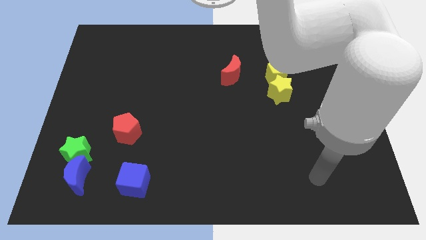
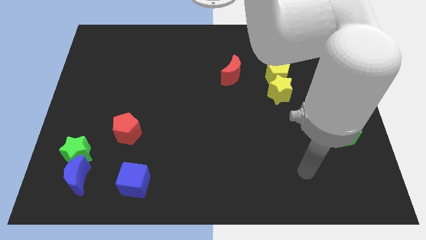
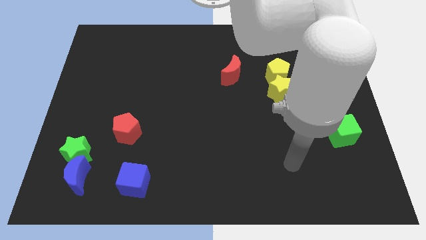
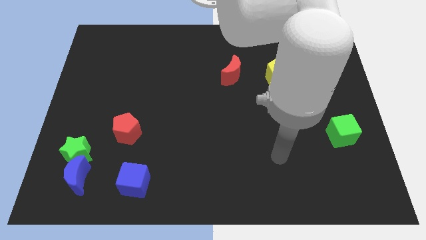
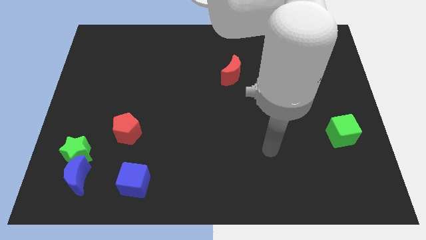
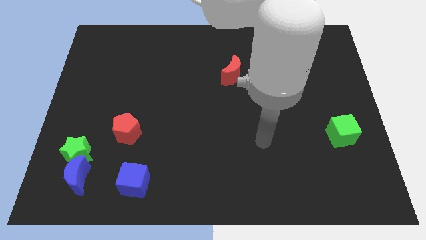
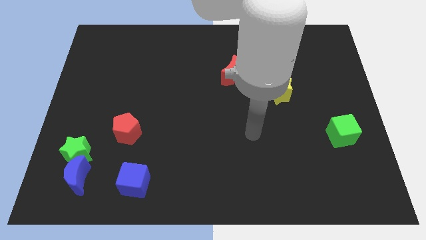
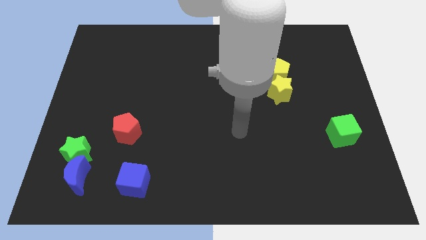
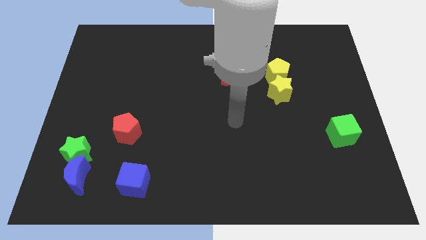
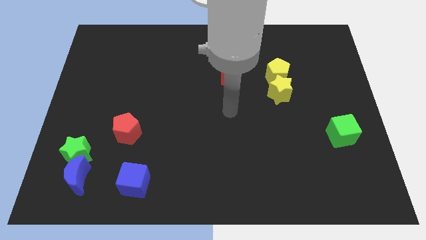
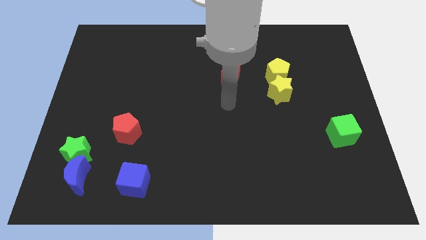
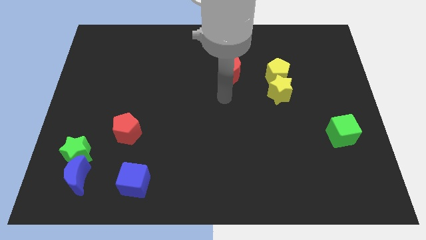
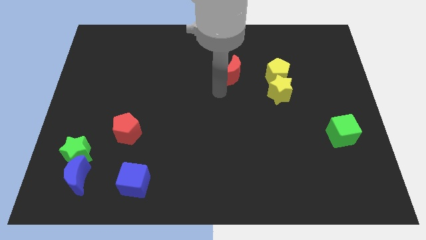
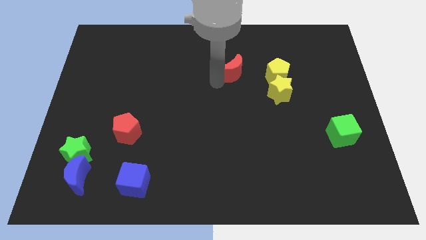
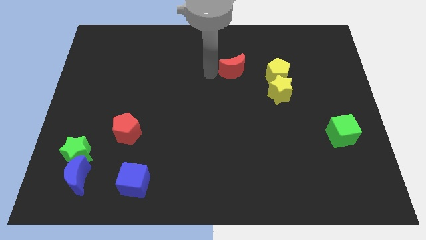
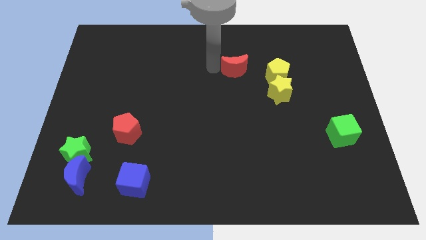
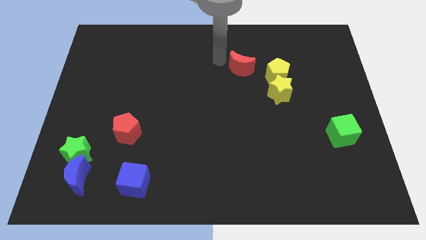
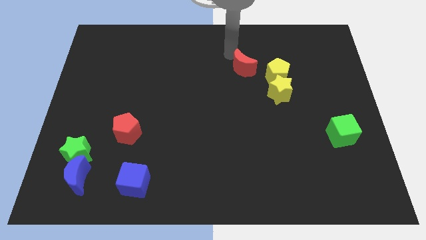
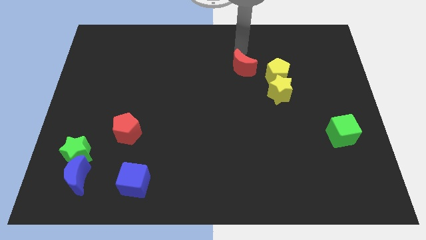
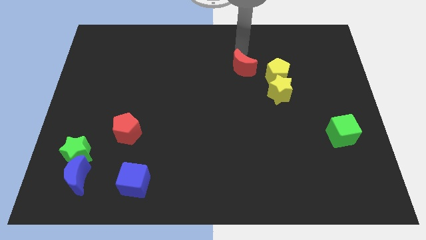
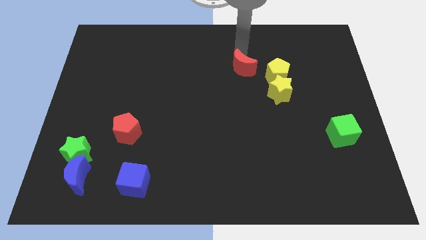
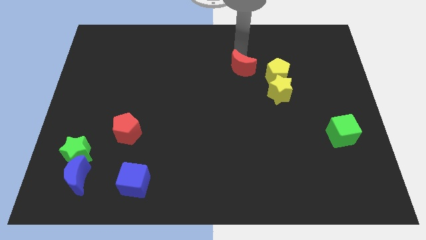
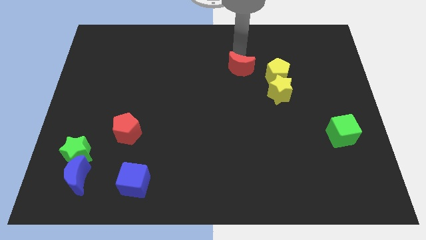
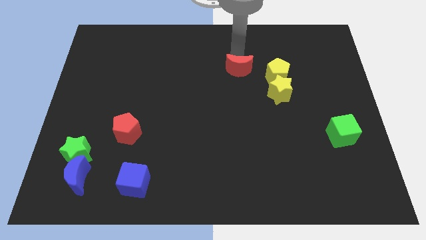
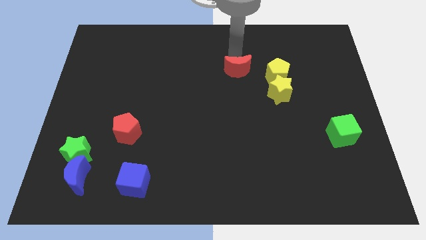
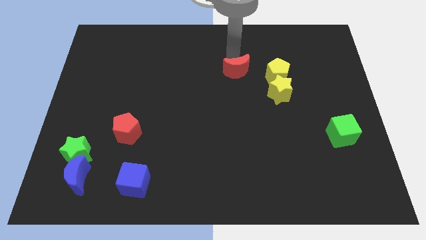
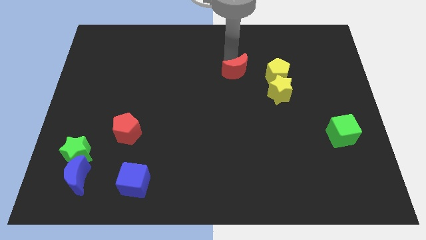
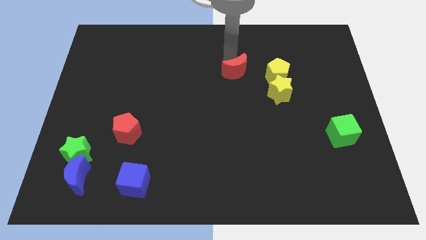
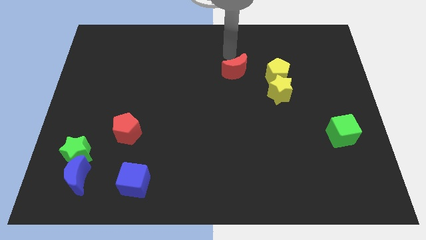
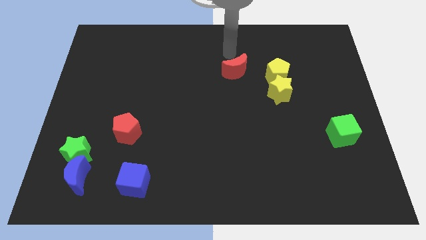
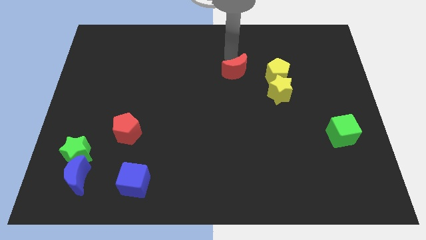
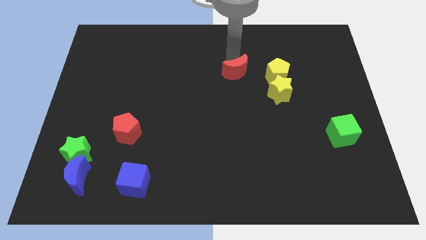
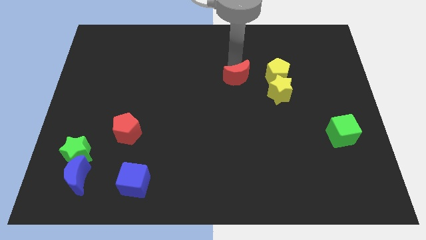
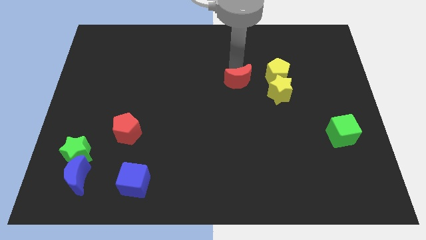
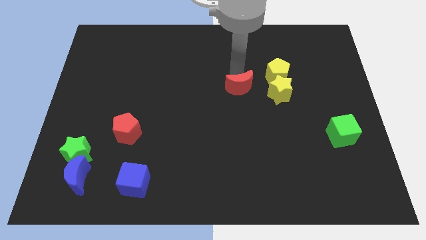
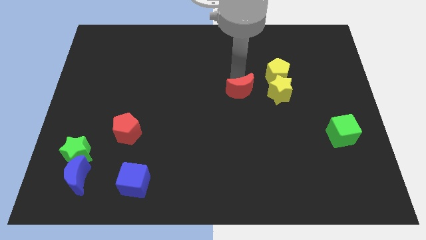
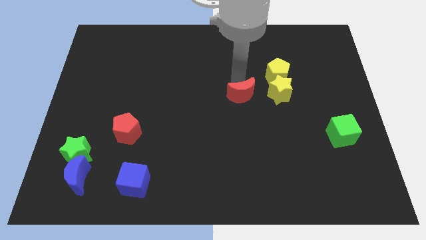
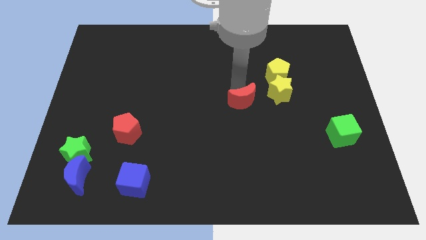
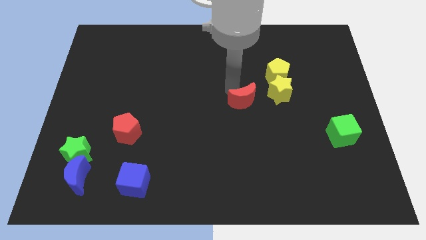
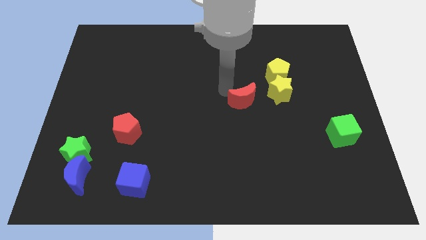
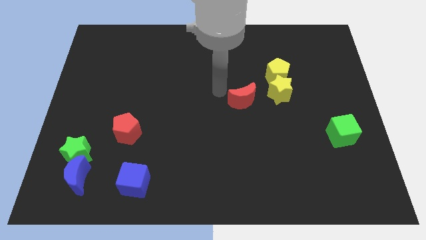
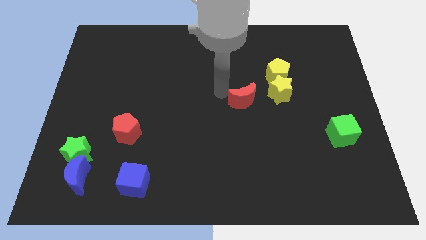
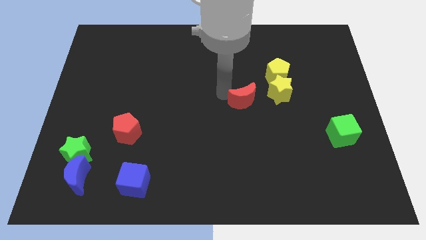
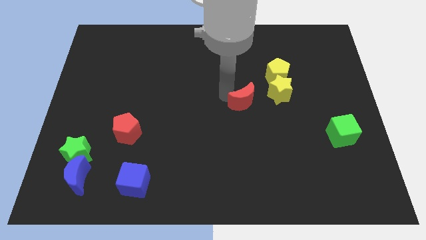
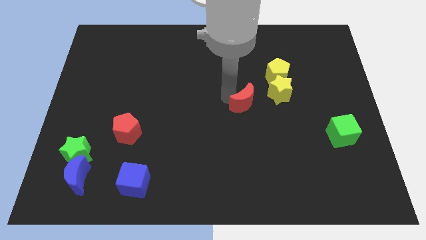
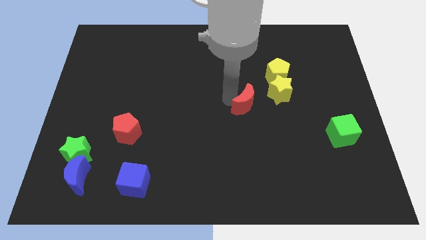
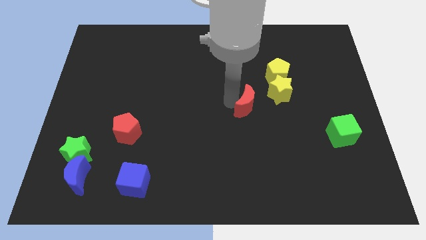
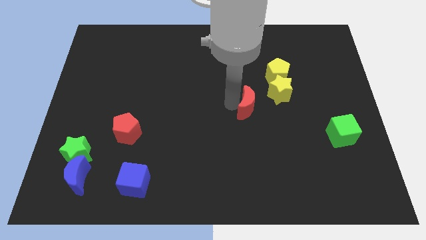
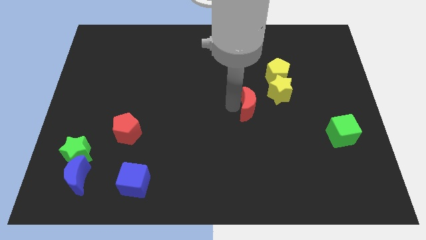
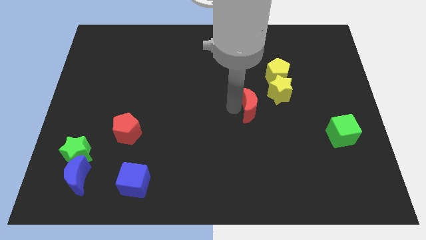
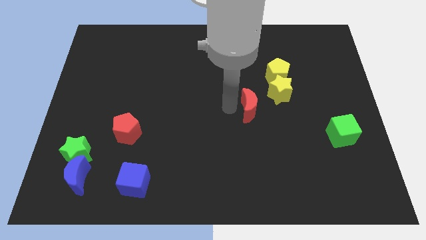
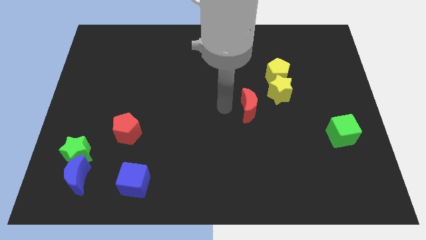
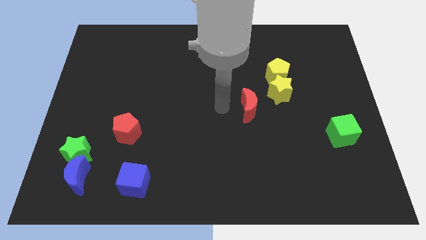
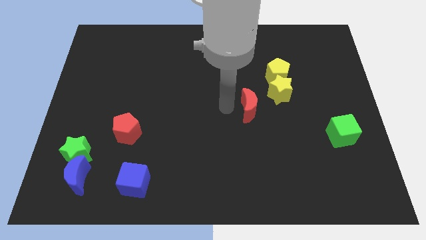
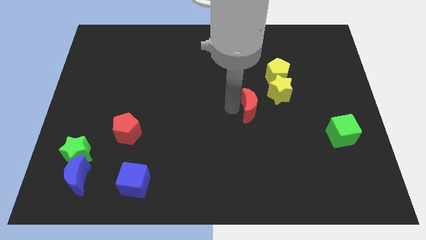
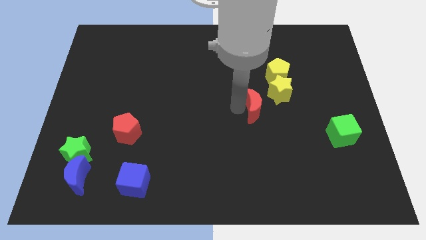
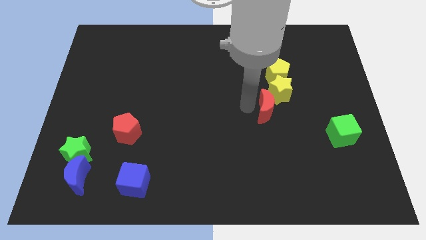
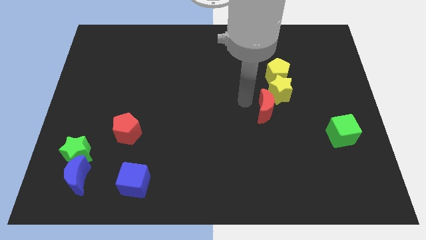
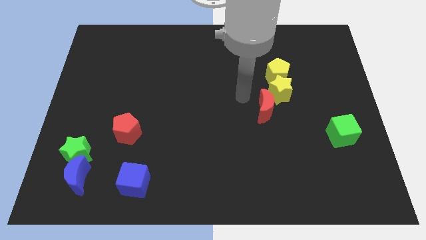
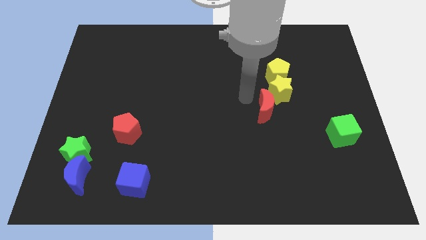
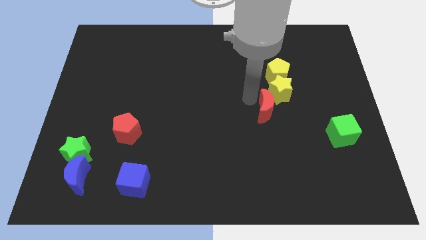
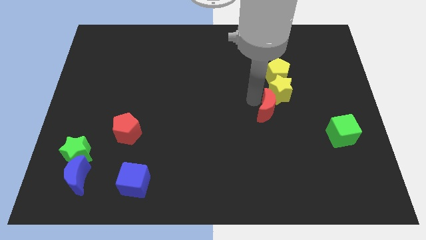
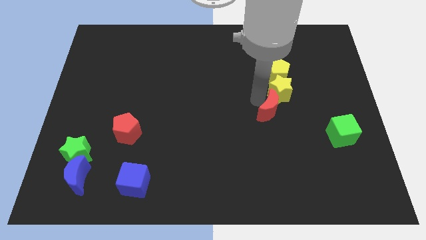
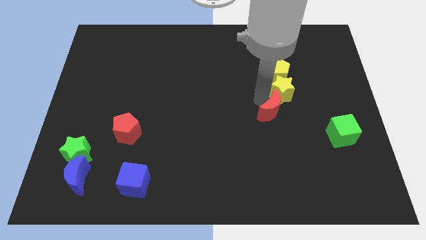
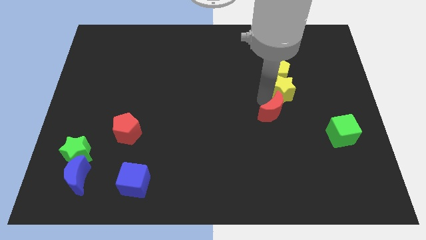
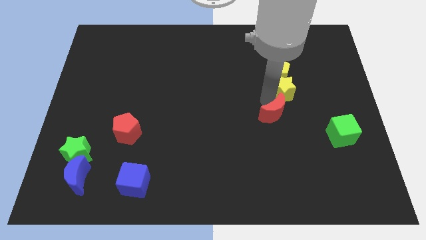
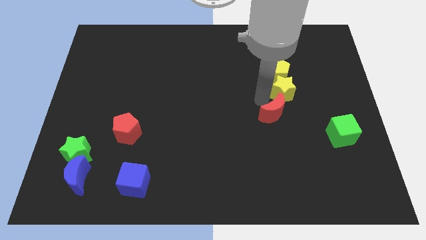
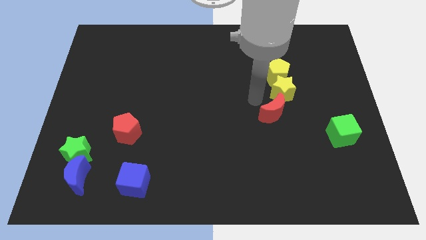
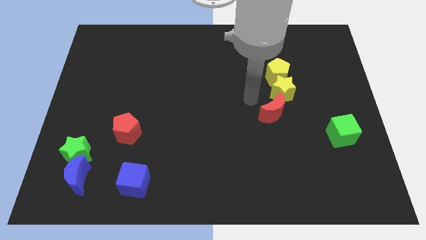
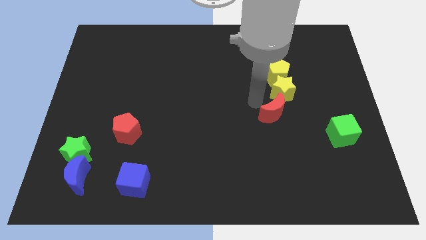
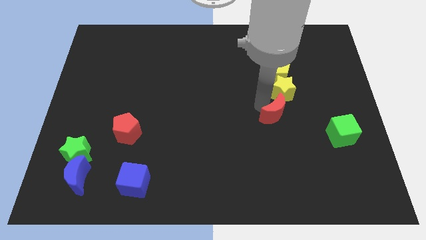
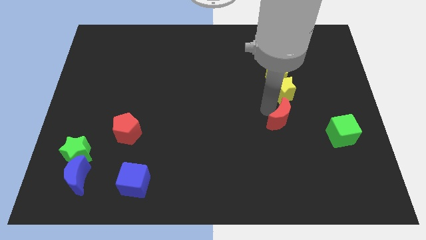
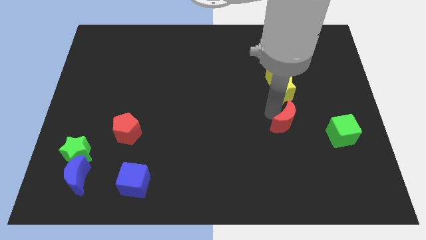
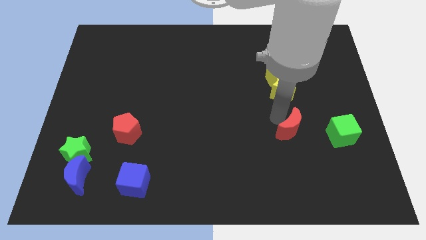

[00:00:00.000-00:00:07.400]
slide the red moon downwards and to the right
